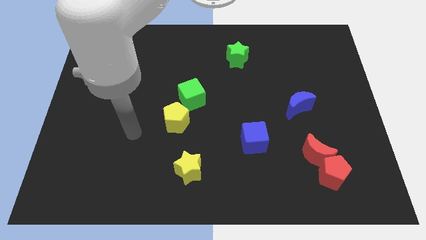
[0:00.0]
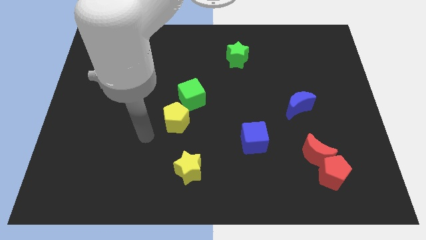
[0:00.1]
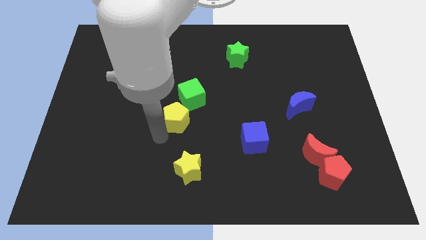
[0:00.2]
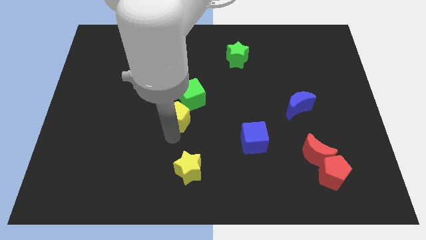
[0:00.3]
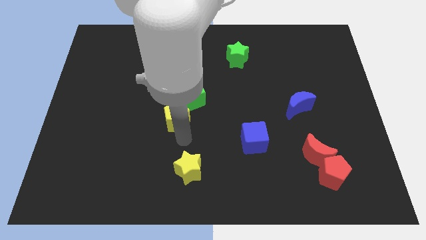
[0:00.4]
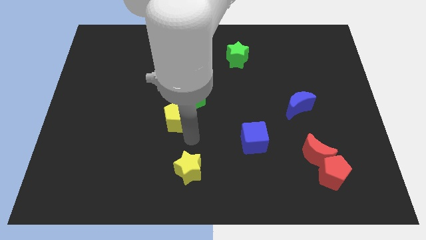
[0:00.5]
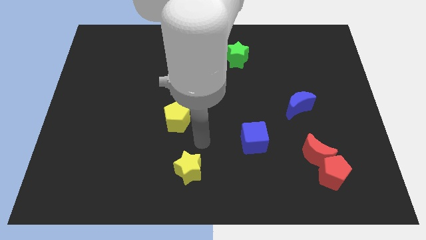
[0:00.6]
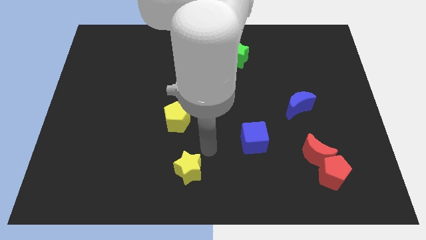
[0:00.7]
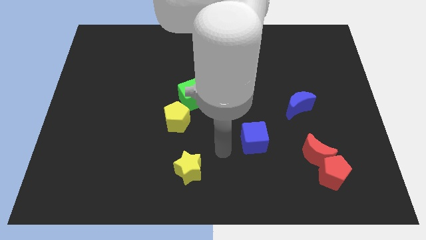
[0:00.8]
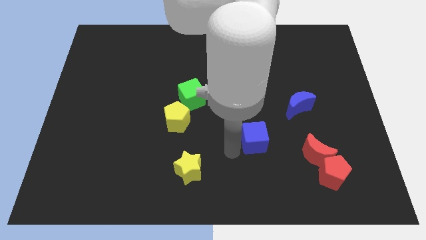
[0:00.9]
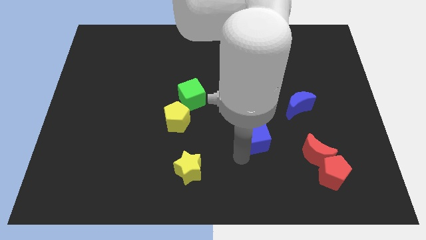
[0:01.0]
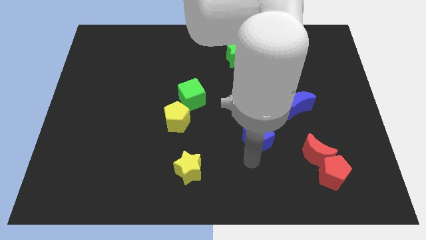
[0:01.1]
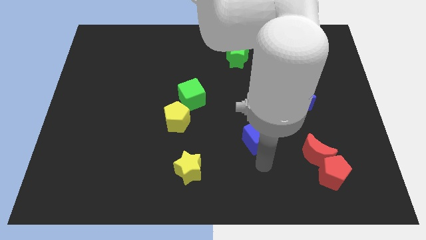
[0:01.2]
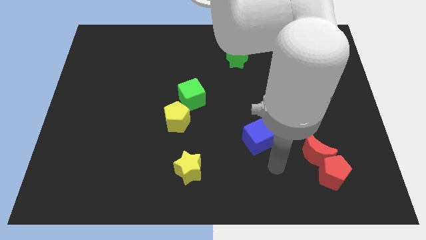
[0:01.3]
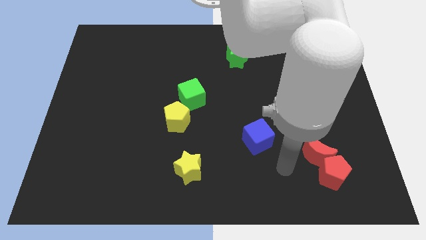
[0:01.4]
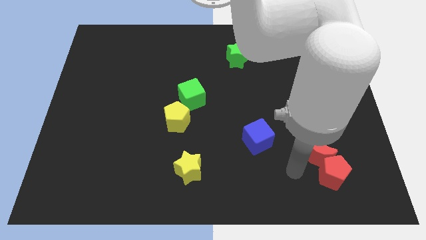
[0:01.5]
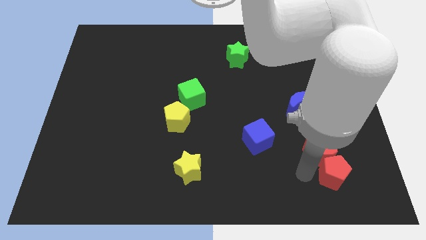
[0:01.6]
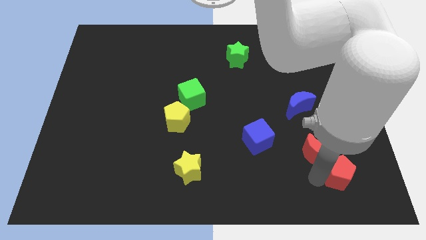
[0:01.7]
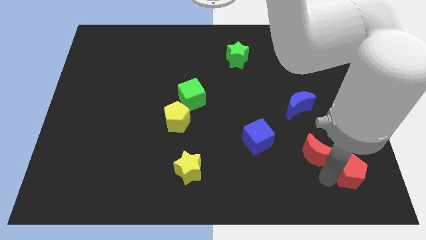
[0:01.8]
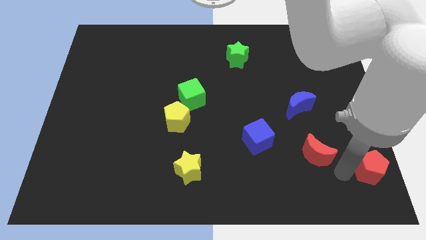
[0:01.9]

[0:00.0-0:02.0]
separate the red moon from the red pentagon

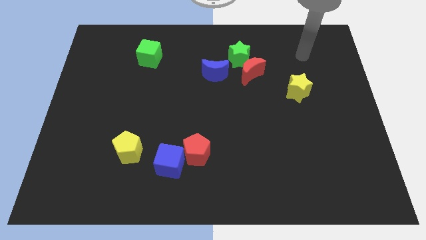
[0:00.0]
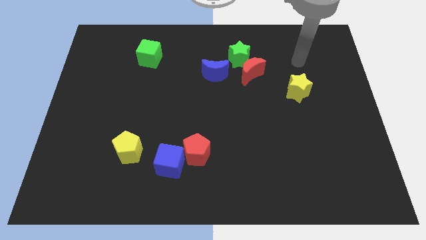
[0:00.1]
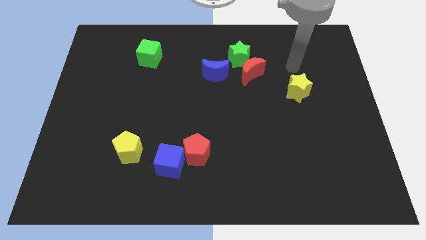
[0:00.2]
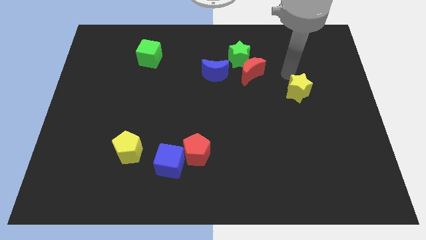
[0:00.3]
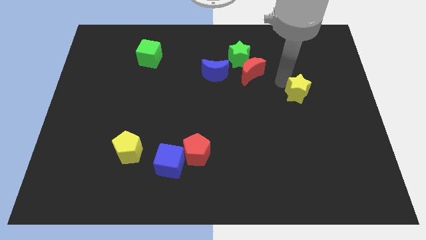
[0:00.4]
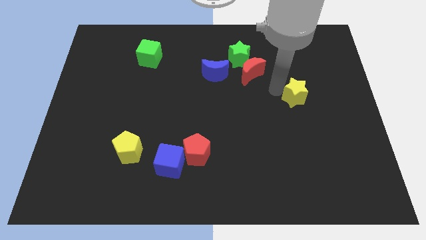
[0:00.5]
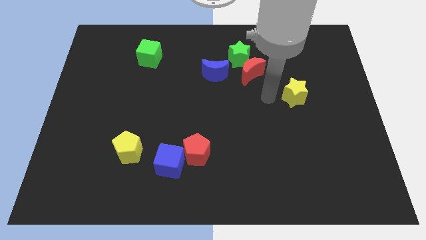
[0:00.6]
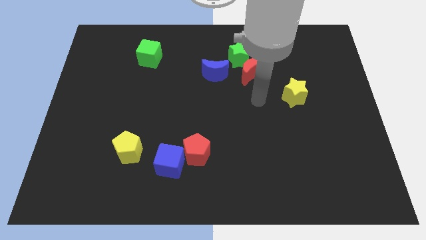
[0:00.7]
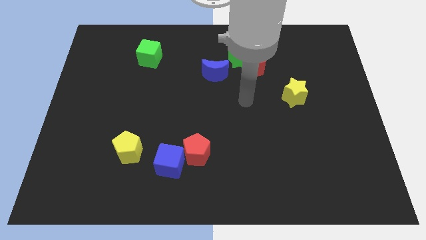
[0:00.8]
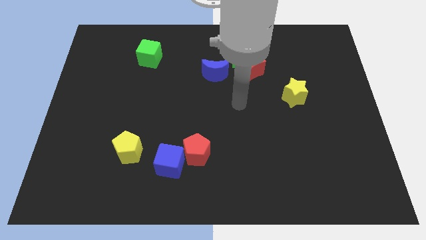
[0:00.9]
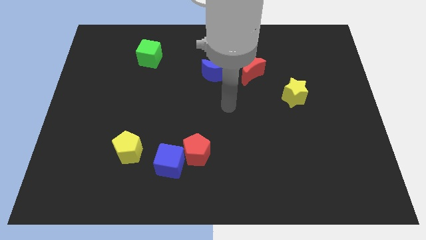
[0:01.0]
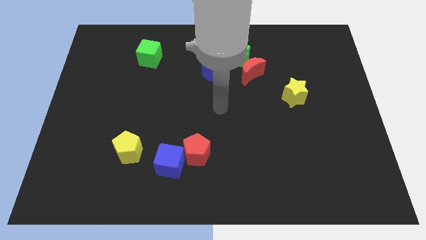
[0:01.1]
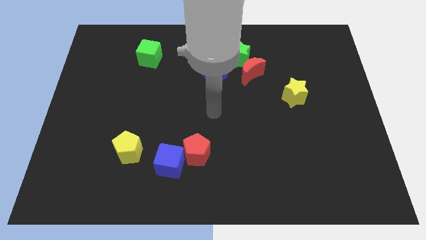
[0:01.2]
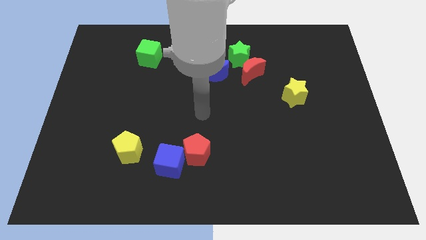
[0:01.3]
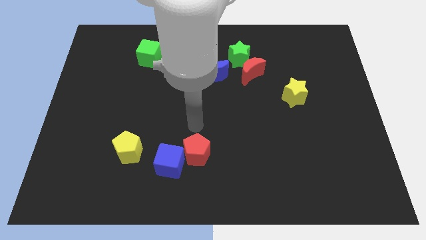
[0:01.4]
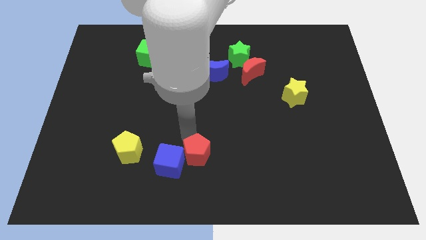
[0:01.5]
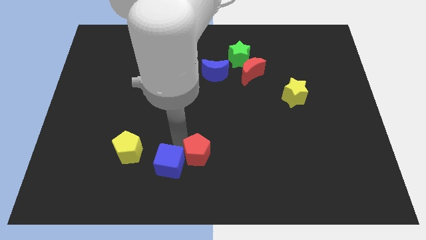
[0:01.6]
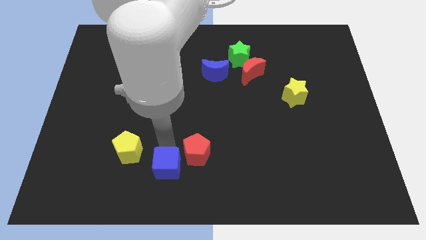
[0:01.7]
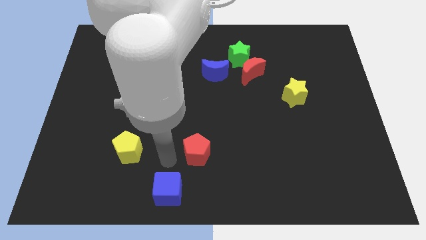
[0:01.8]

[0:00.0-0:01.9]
separate the red pentagon from the blue cube

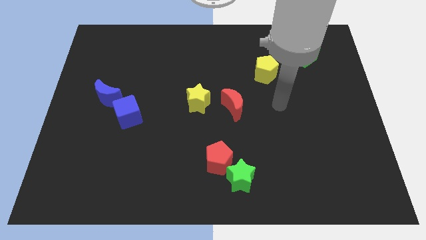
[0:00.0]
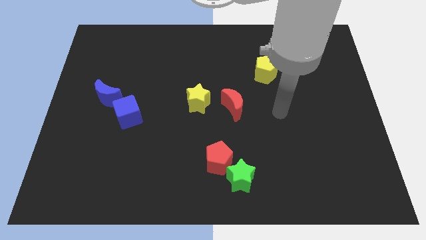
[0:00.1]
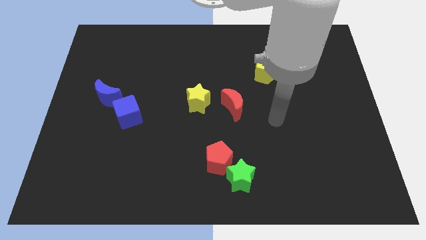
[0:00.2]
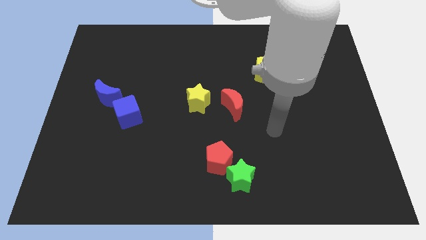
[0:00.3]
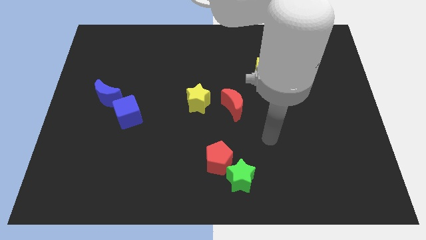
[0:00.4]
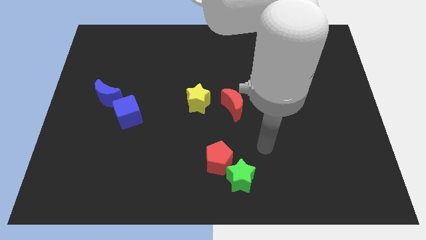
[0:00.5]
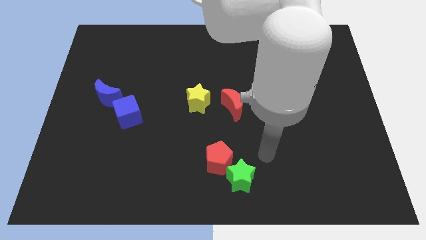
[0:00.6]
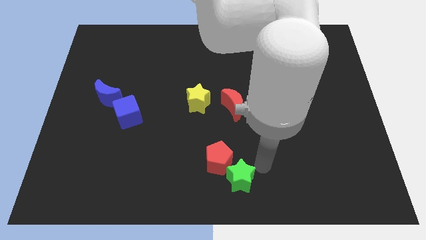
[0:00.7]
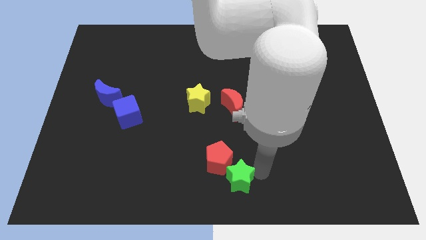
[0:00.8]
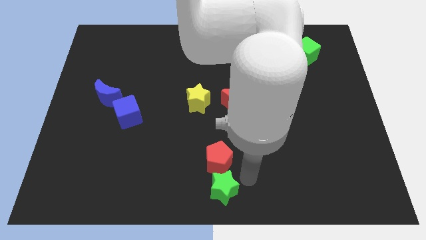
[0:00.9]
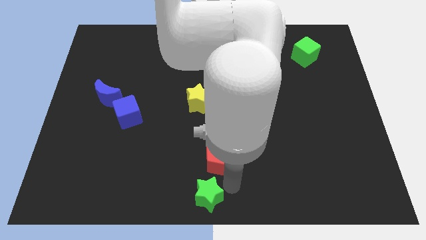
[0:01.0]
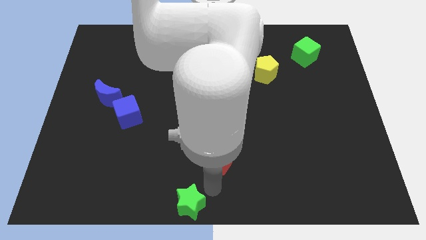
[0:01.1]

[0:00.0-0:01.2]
pull the red pentagon apart from the green star

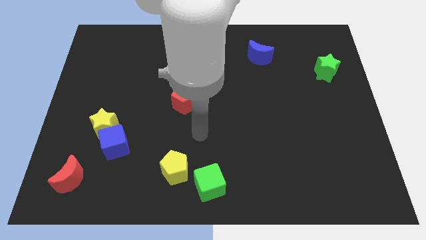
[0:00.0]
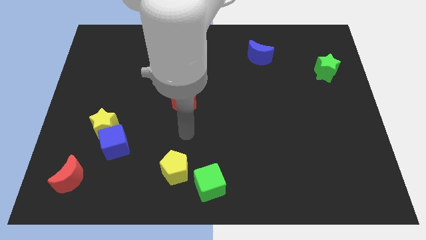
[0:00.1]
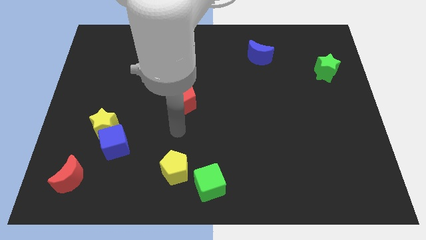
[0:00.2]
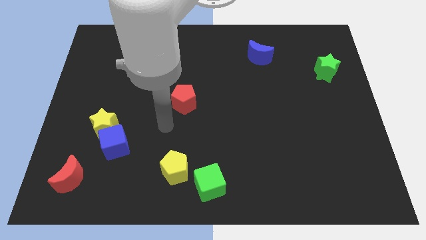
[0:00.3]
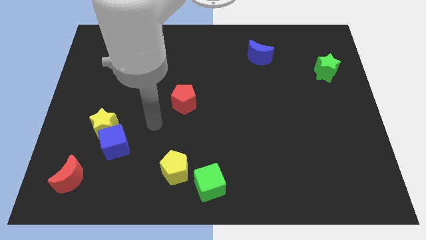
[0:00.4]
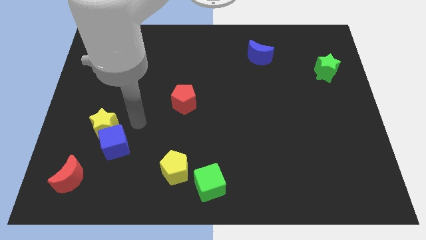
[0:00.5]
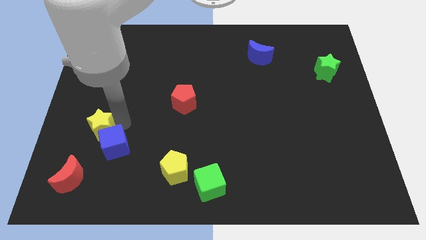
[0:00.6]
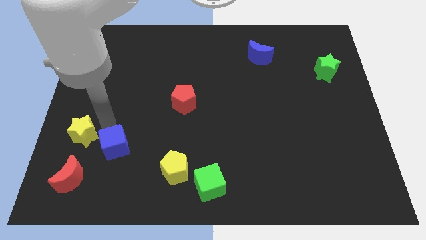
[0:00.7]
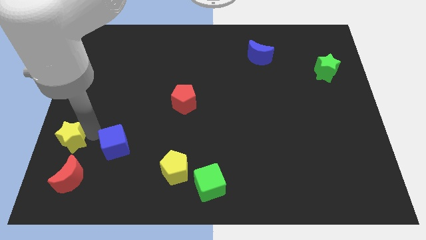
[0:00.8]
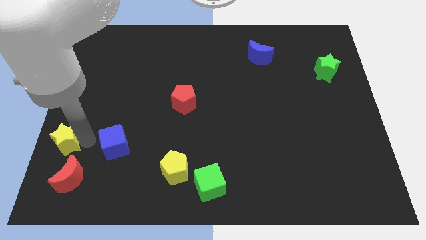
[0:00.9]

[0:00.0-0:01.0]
separate the blue cube from the yellow star

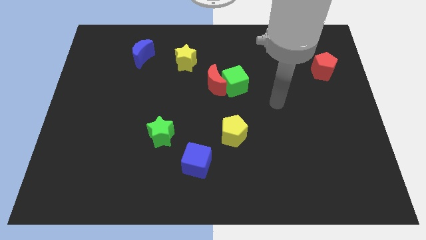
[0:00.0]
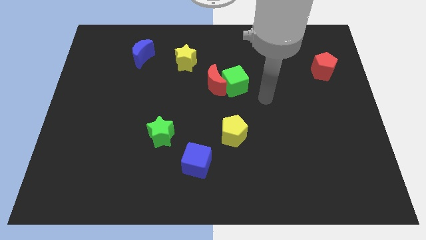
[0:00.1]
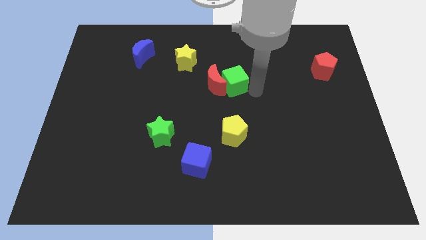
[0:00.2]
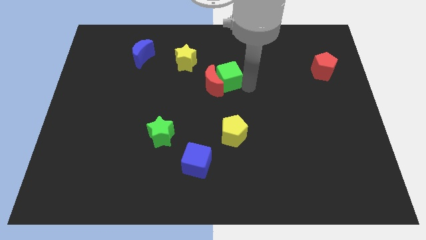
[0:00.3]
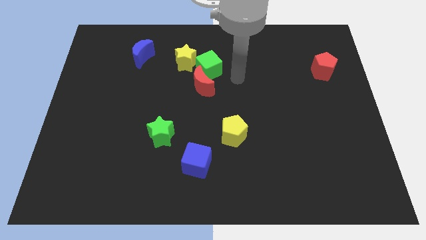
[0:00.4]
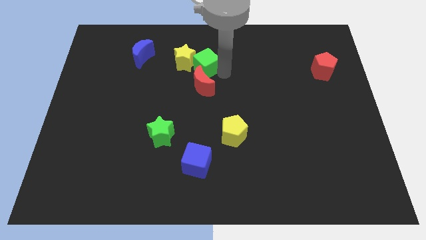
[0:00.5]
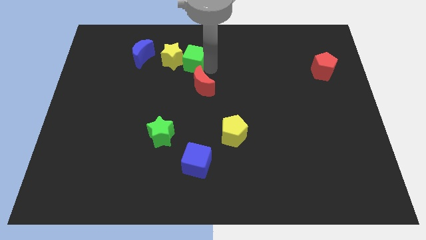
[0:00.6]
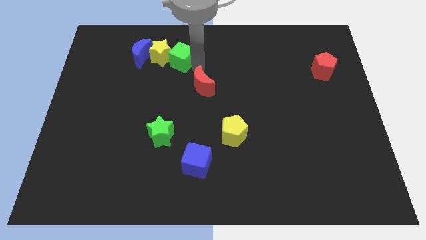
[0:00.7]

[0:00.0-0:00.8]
separate the red moon from the green cube

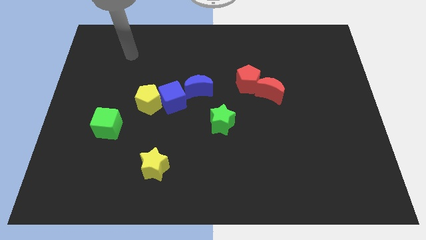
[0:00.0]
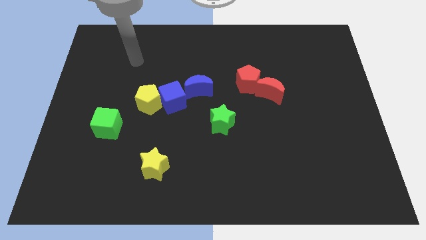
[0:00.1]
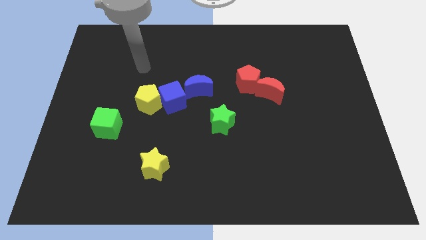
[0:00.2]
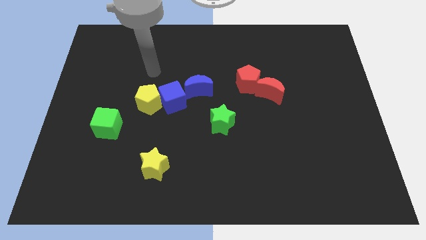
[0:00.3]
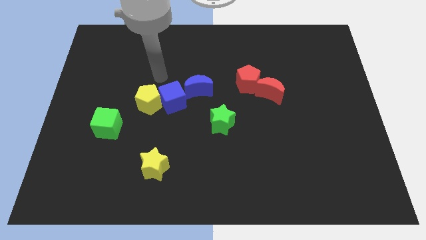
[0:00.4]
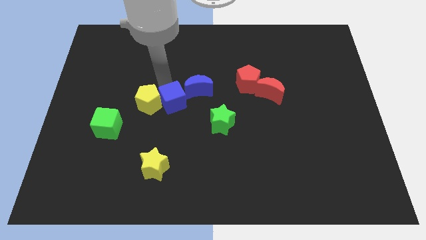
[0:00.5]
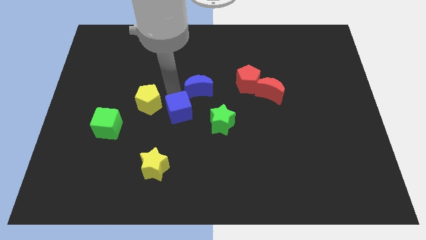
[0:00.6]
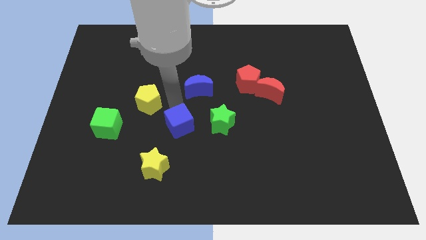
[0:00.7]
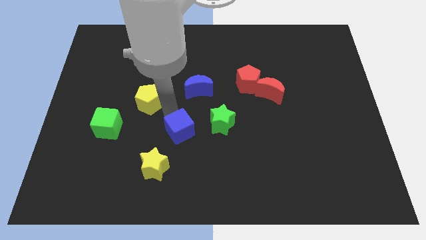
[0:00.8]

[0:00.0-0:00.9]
pull the yellow pentagon apart from the blue cube

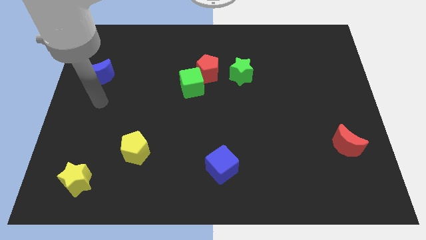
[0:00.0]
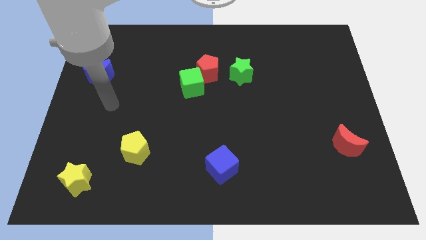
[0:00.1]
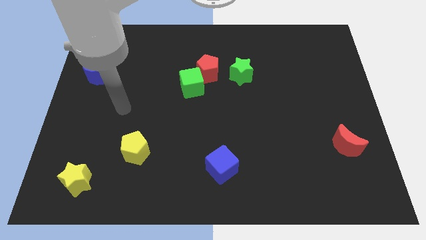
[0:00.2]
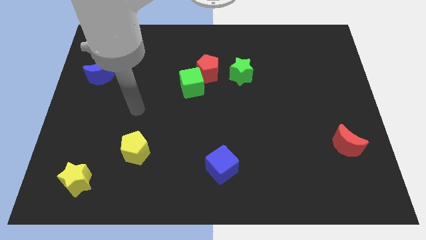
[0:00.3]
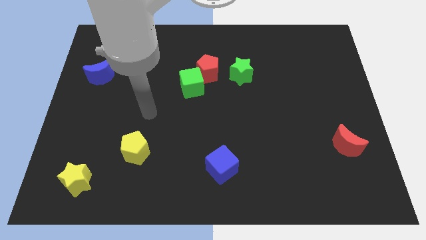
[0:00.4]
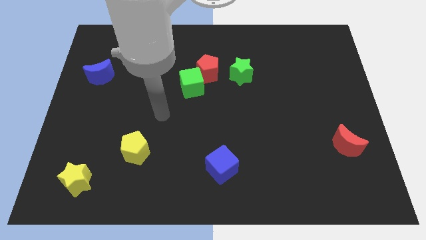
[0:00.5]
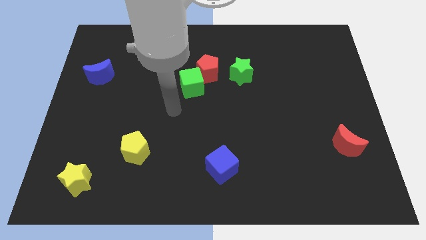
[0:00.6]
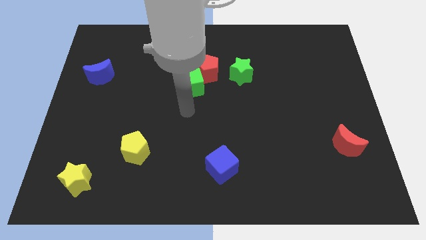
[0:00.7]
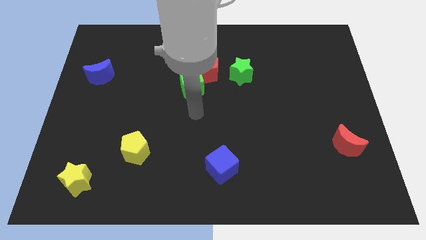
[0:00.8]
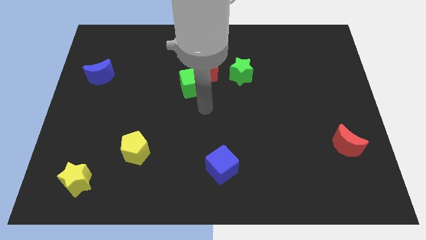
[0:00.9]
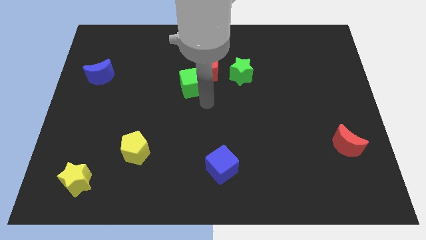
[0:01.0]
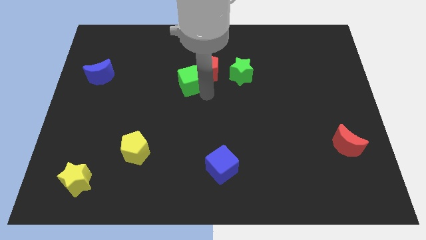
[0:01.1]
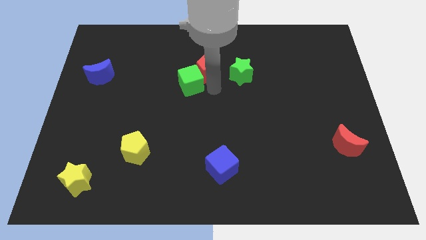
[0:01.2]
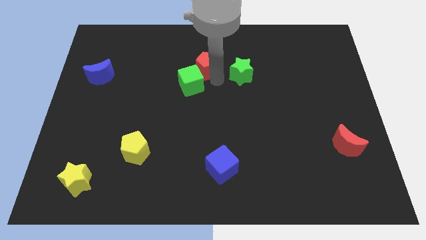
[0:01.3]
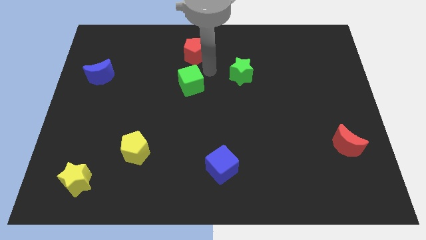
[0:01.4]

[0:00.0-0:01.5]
move the green cube away from the red pentagon
